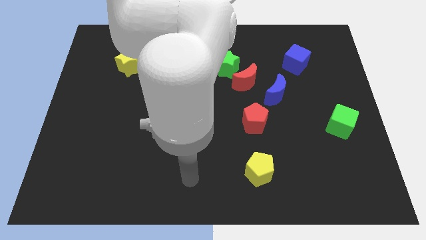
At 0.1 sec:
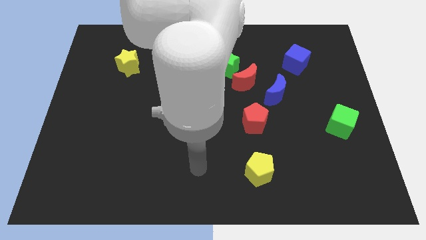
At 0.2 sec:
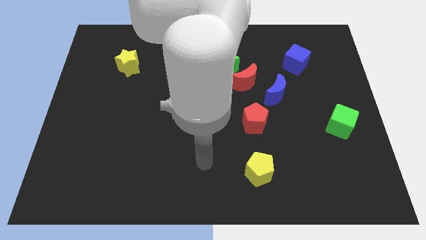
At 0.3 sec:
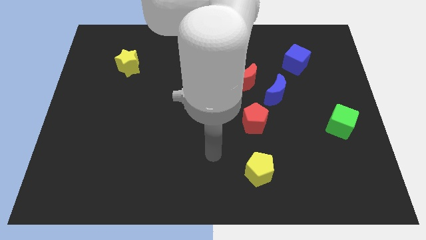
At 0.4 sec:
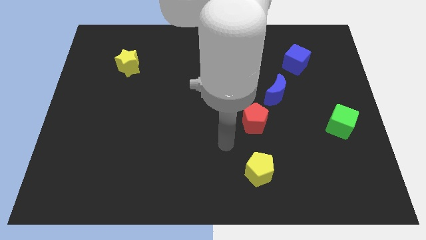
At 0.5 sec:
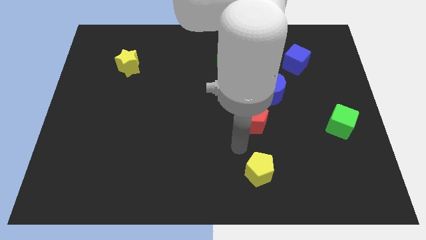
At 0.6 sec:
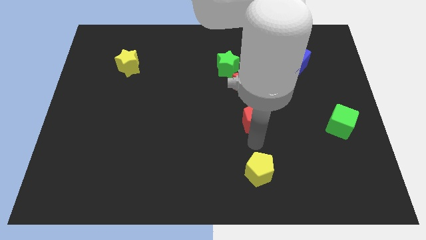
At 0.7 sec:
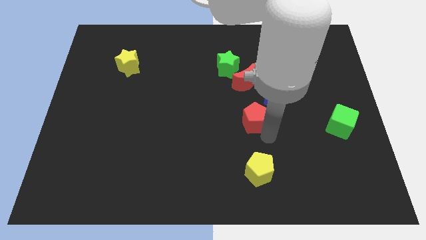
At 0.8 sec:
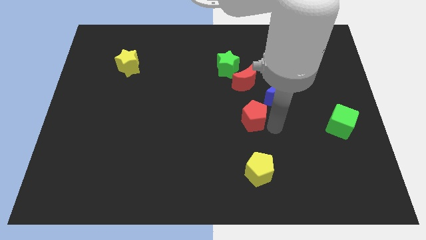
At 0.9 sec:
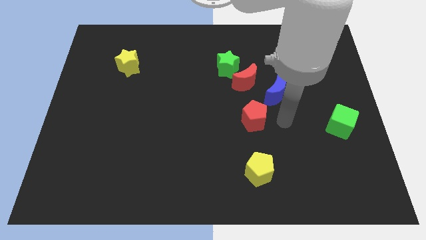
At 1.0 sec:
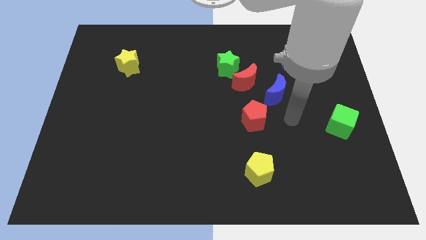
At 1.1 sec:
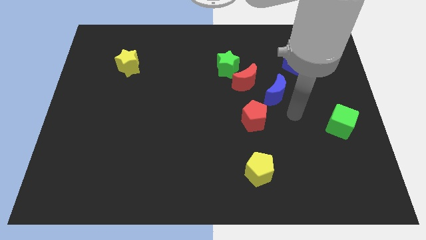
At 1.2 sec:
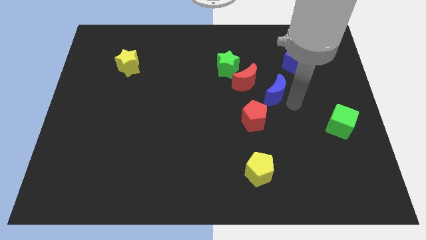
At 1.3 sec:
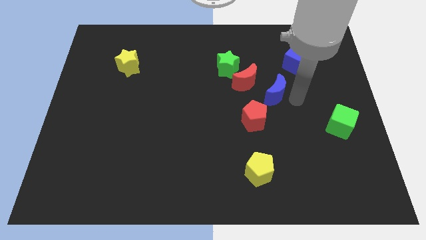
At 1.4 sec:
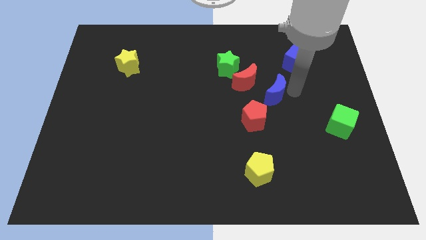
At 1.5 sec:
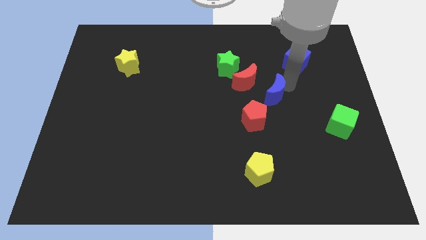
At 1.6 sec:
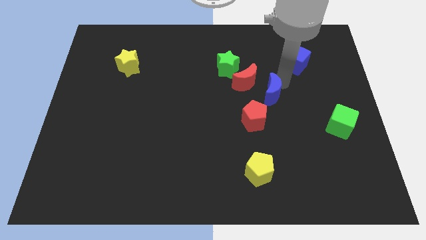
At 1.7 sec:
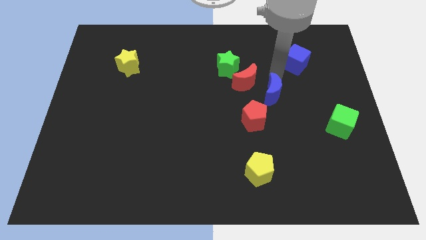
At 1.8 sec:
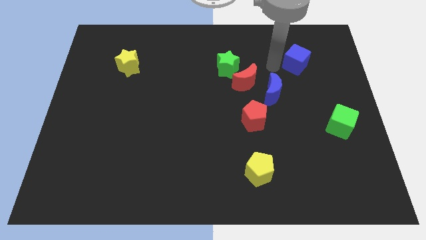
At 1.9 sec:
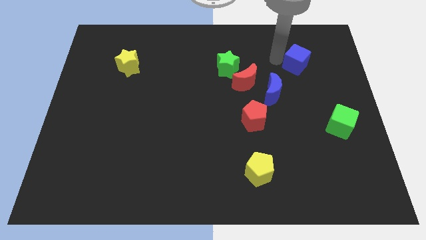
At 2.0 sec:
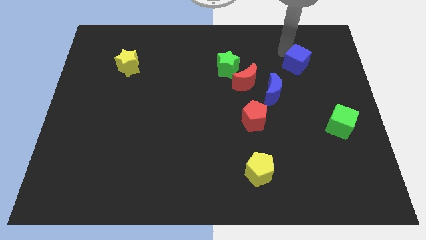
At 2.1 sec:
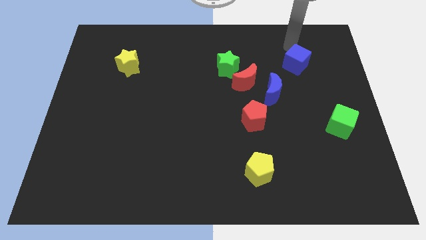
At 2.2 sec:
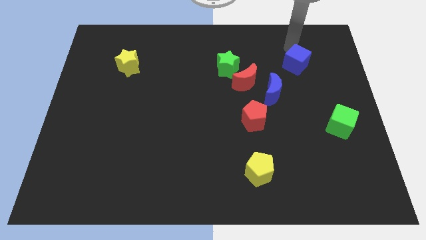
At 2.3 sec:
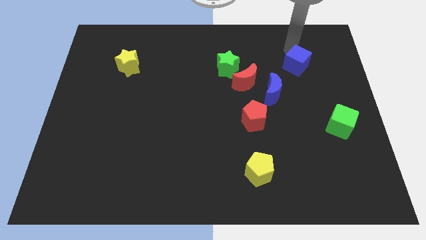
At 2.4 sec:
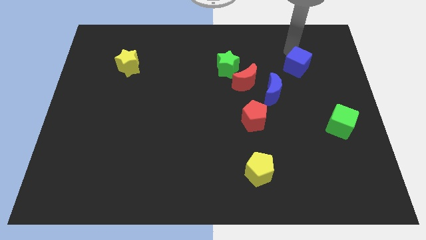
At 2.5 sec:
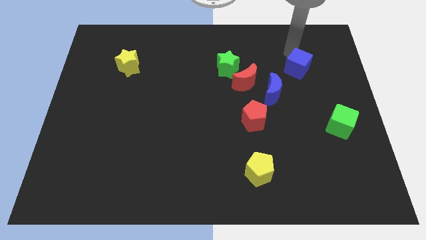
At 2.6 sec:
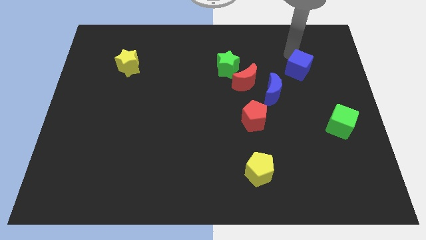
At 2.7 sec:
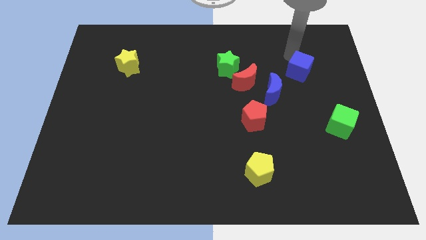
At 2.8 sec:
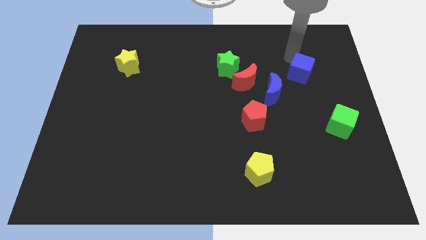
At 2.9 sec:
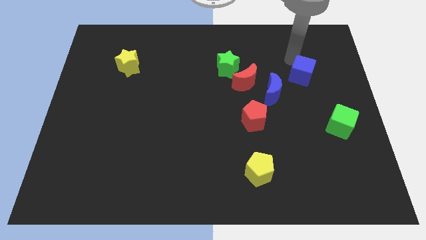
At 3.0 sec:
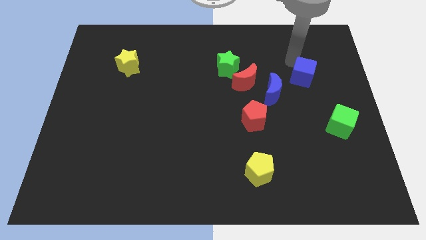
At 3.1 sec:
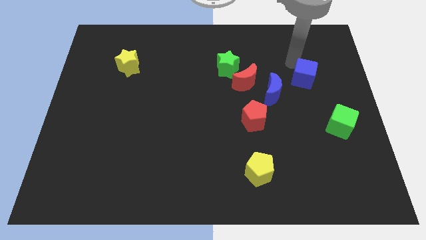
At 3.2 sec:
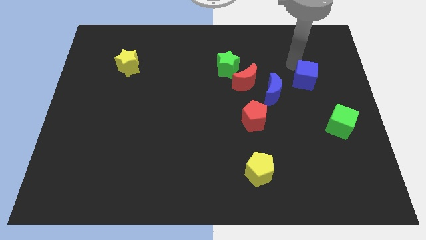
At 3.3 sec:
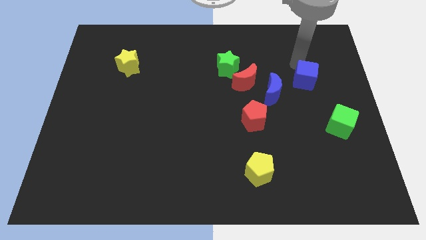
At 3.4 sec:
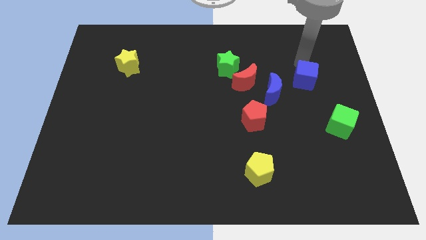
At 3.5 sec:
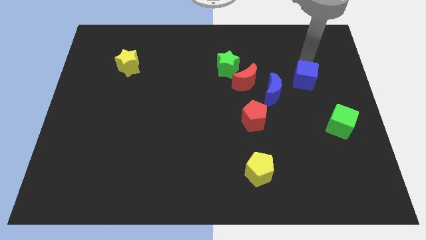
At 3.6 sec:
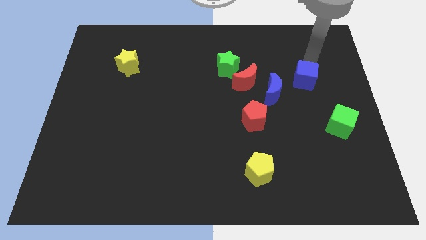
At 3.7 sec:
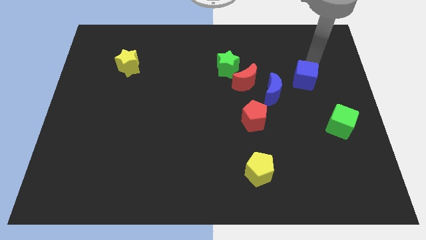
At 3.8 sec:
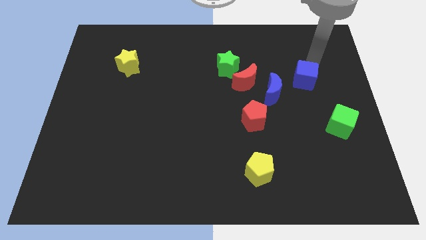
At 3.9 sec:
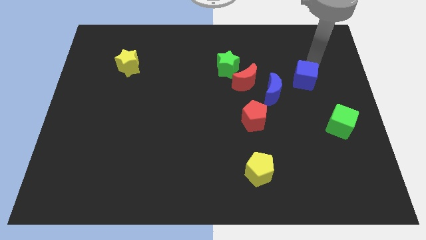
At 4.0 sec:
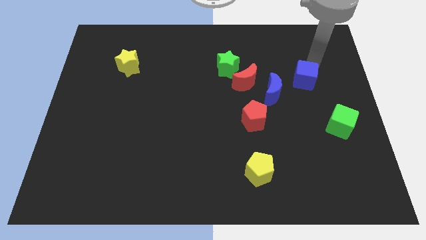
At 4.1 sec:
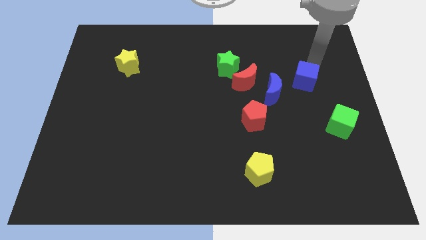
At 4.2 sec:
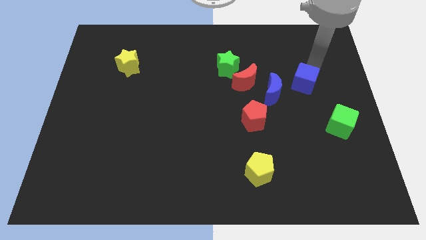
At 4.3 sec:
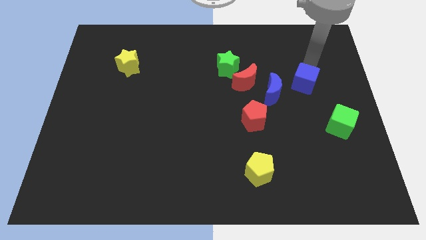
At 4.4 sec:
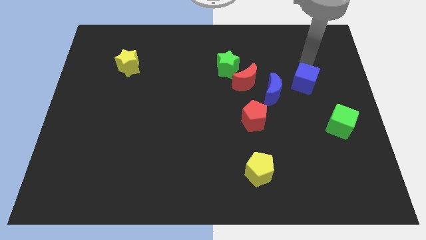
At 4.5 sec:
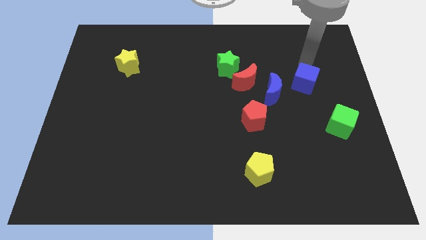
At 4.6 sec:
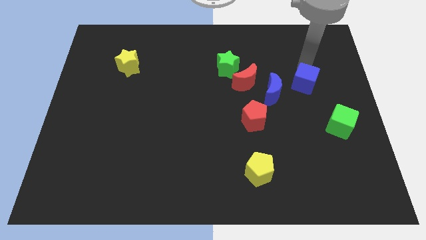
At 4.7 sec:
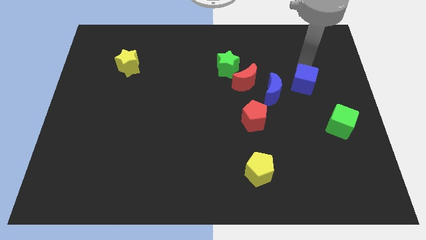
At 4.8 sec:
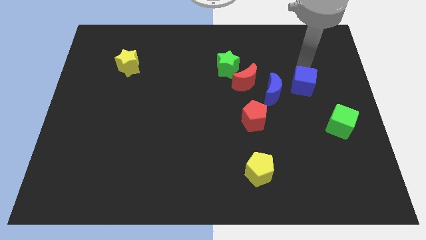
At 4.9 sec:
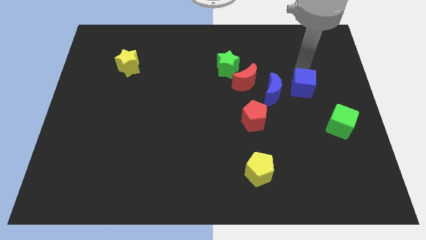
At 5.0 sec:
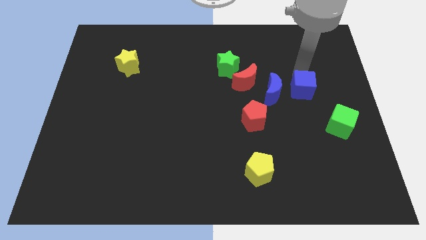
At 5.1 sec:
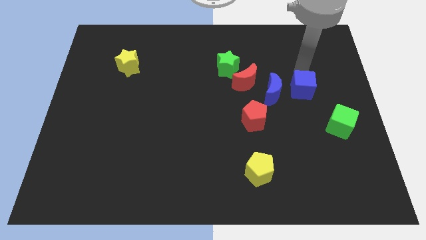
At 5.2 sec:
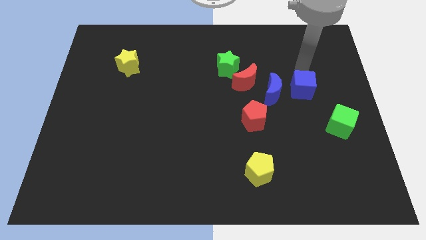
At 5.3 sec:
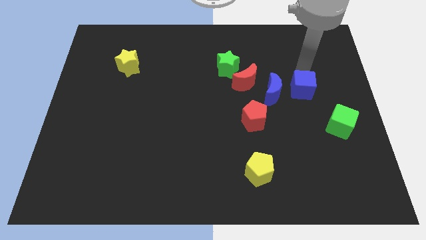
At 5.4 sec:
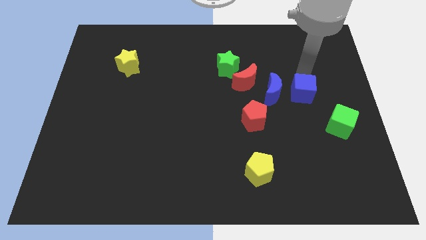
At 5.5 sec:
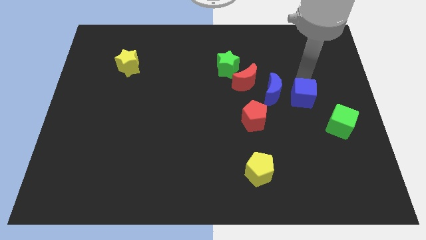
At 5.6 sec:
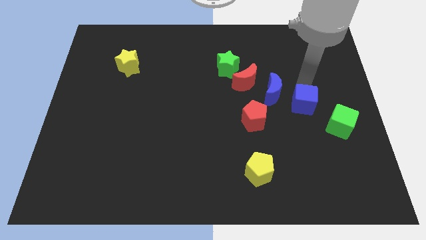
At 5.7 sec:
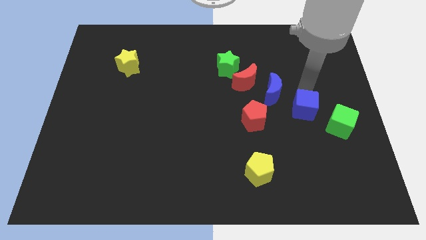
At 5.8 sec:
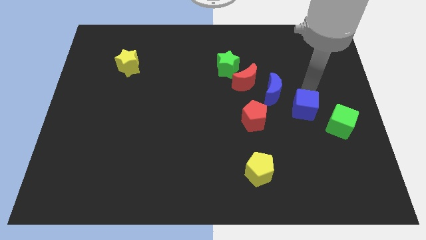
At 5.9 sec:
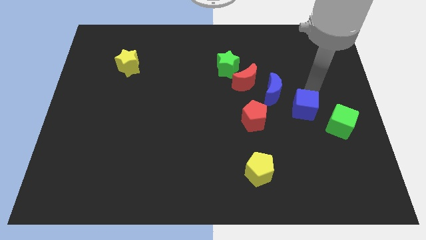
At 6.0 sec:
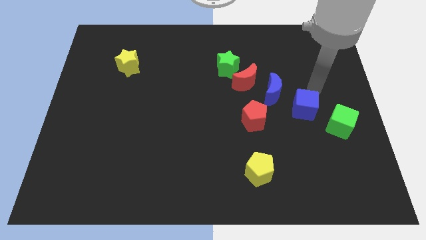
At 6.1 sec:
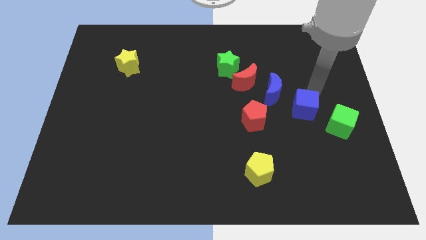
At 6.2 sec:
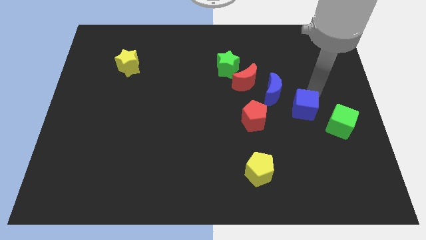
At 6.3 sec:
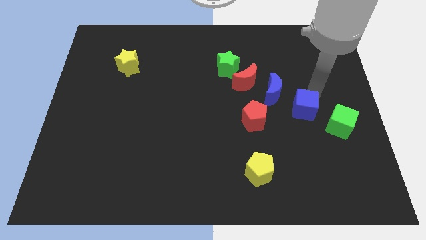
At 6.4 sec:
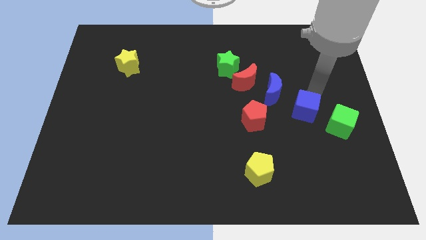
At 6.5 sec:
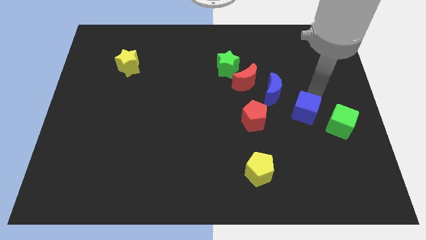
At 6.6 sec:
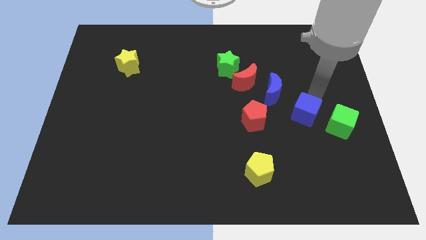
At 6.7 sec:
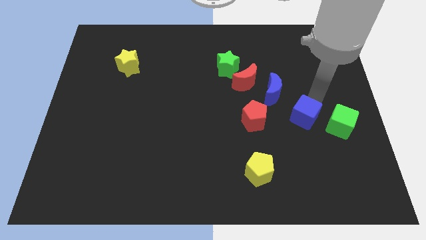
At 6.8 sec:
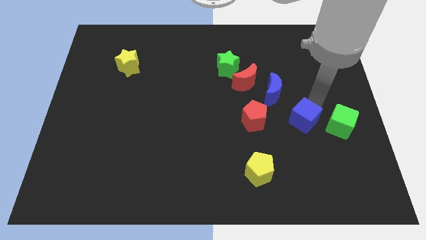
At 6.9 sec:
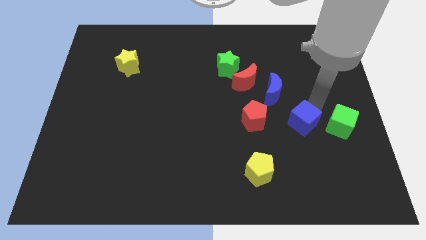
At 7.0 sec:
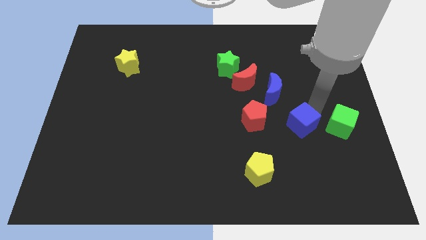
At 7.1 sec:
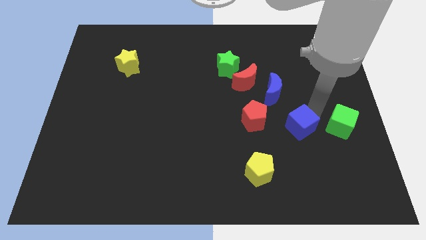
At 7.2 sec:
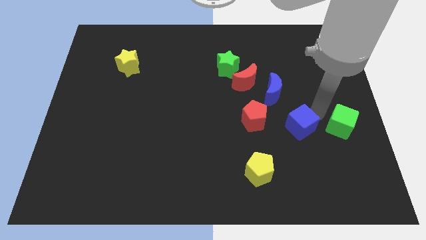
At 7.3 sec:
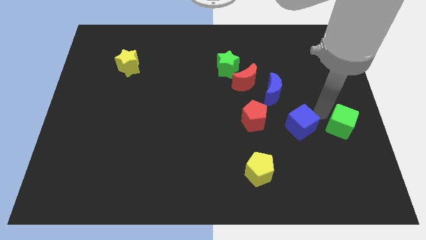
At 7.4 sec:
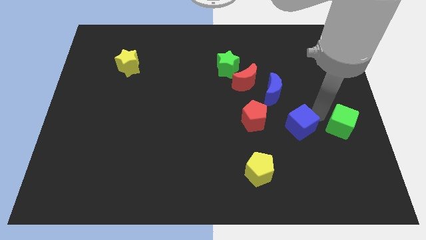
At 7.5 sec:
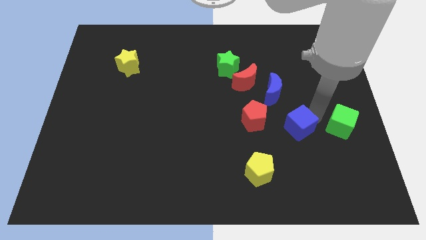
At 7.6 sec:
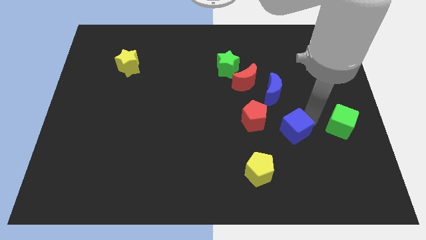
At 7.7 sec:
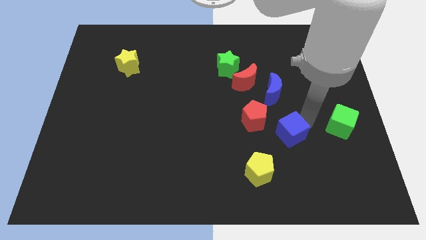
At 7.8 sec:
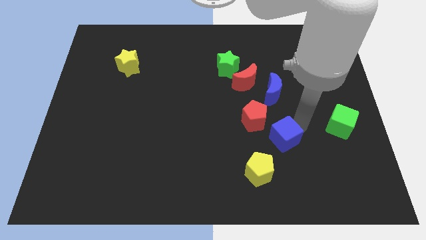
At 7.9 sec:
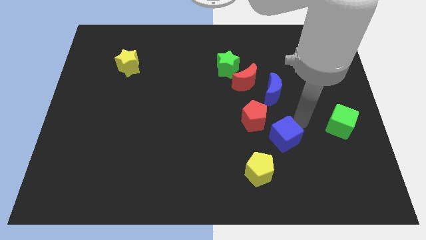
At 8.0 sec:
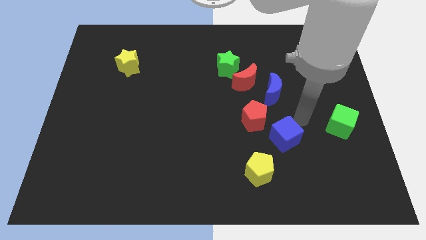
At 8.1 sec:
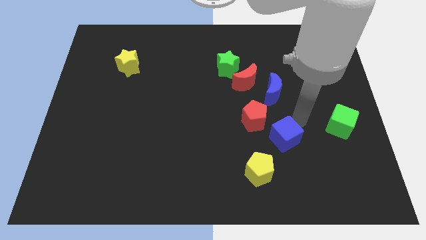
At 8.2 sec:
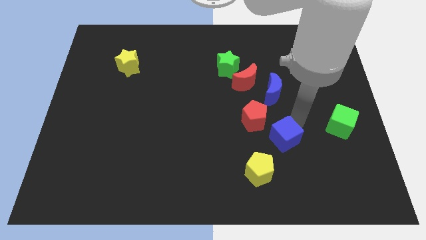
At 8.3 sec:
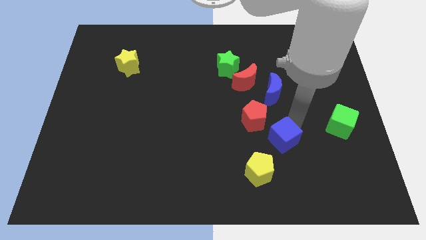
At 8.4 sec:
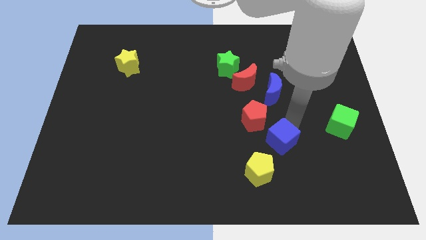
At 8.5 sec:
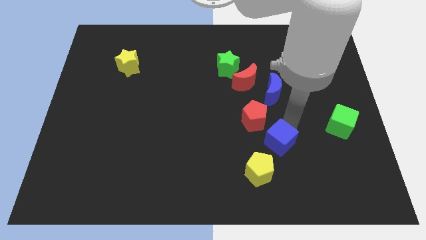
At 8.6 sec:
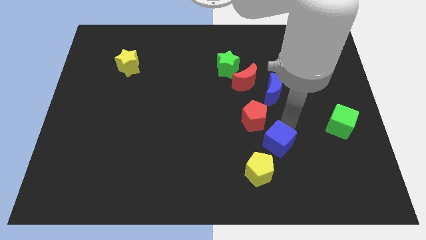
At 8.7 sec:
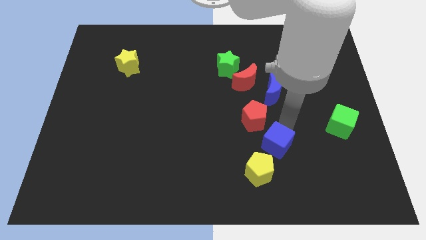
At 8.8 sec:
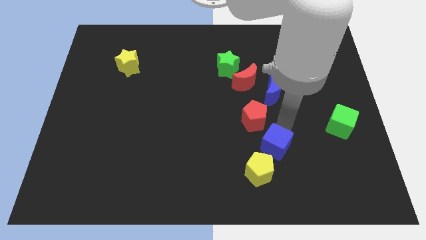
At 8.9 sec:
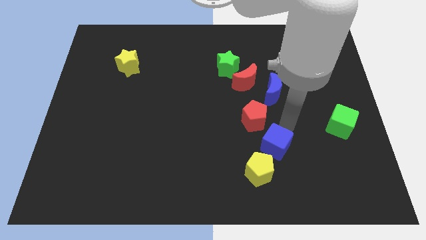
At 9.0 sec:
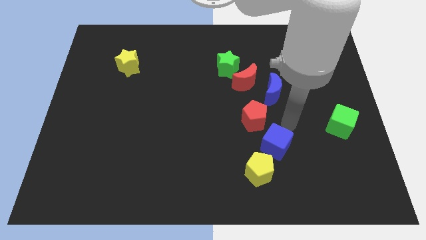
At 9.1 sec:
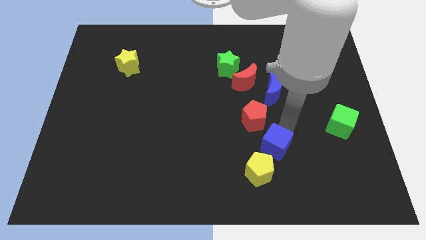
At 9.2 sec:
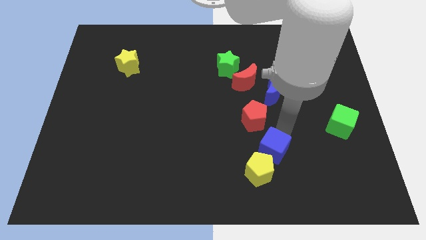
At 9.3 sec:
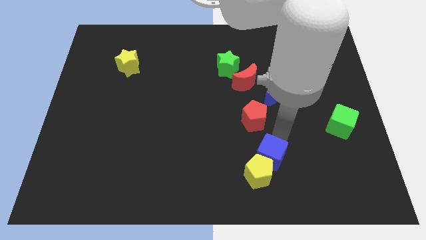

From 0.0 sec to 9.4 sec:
put the blue cube close to the yellow pentagon
